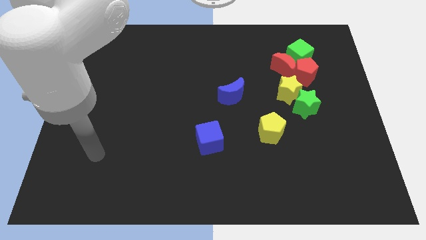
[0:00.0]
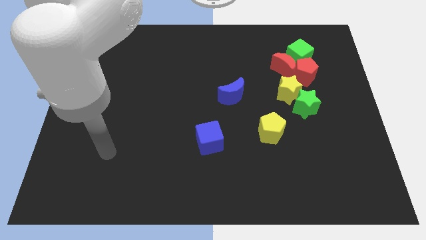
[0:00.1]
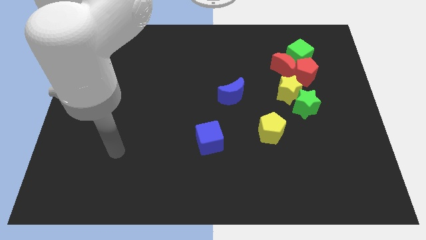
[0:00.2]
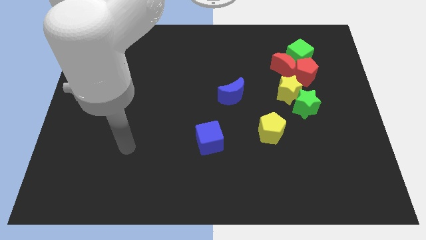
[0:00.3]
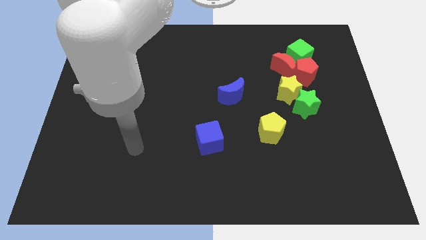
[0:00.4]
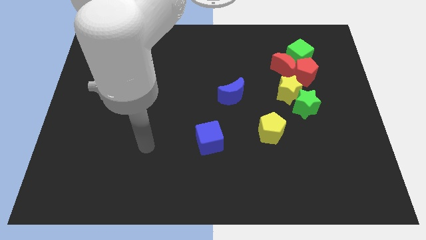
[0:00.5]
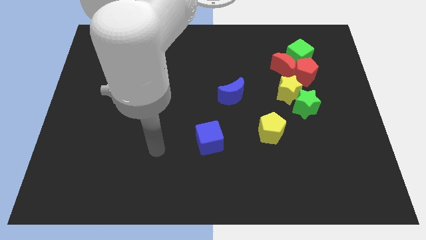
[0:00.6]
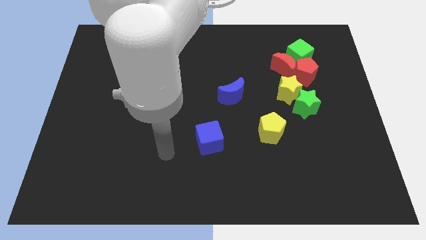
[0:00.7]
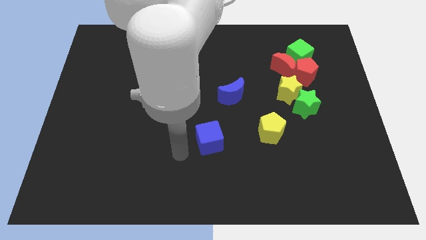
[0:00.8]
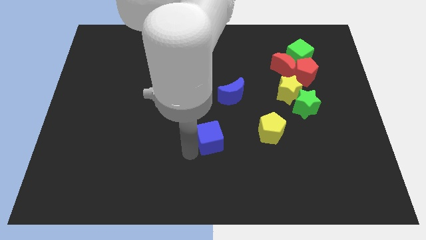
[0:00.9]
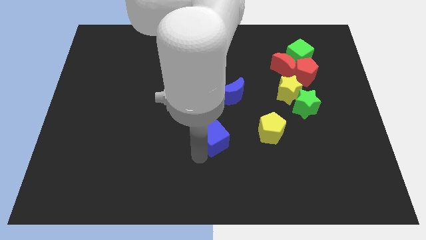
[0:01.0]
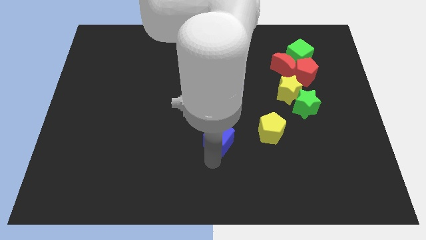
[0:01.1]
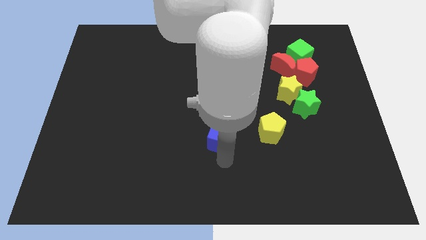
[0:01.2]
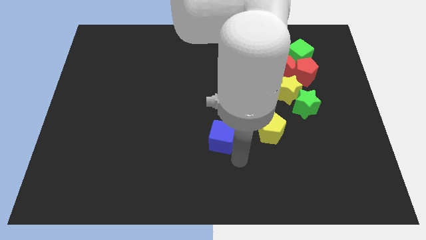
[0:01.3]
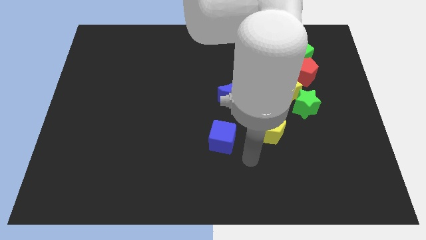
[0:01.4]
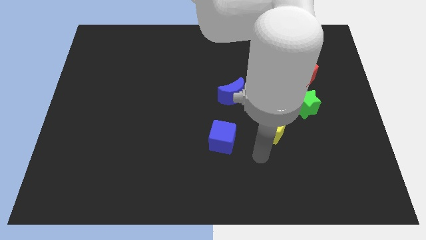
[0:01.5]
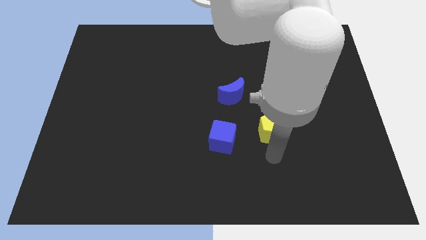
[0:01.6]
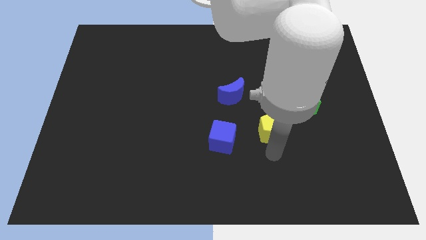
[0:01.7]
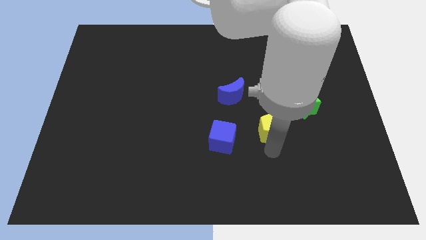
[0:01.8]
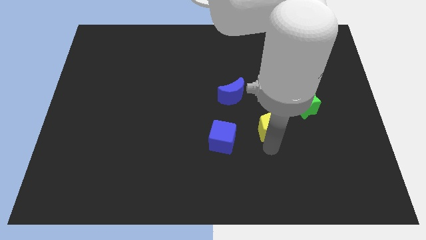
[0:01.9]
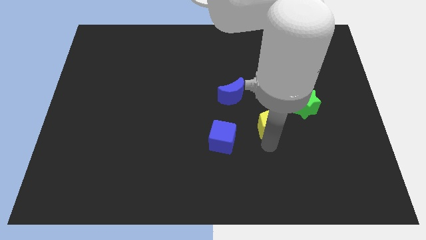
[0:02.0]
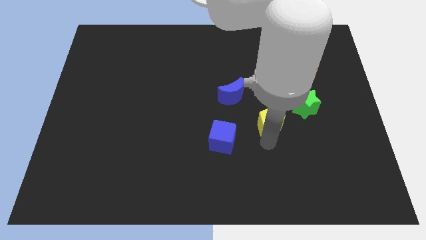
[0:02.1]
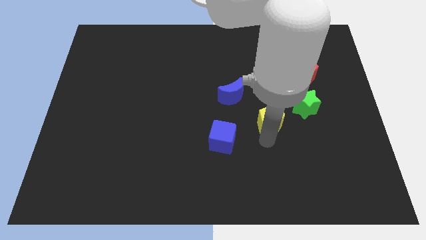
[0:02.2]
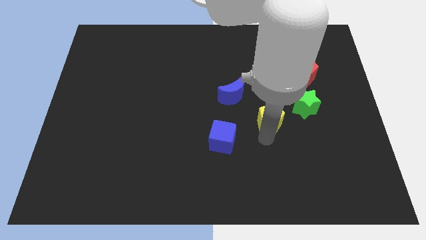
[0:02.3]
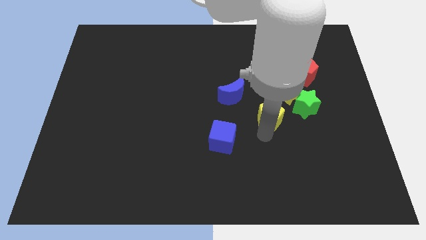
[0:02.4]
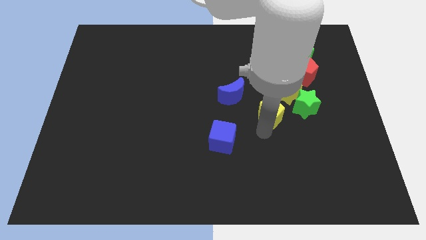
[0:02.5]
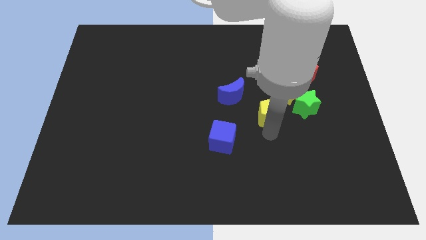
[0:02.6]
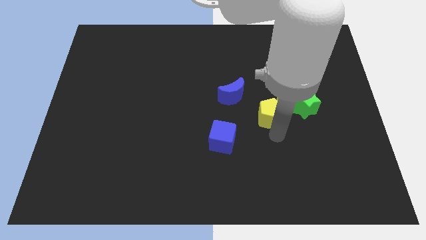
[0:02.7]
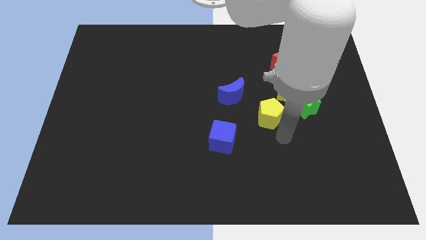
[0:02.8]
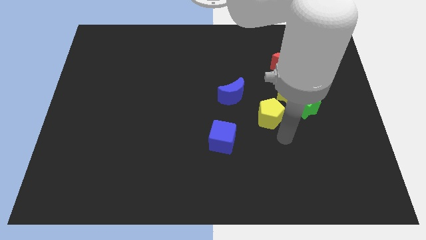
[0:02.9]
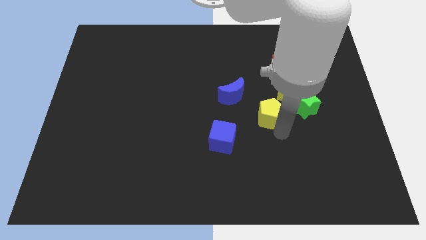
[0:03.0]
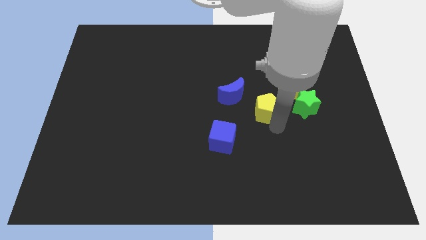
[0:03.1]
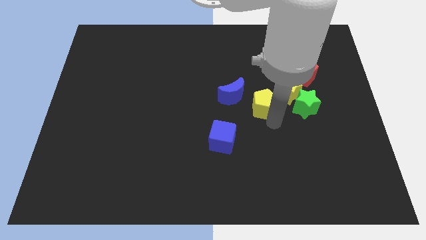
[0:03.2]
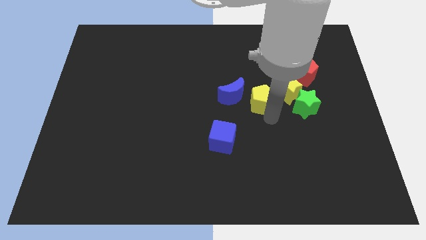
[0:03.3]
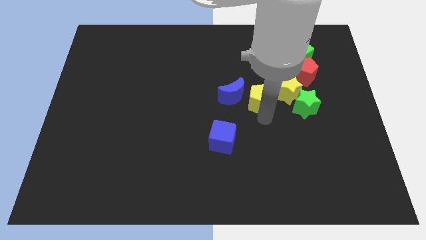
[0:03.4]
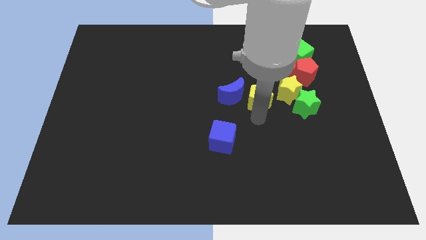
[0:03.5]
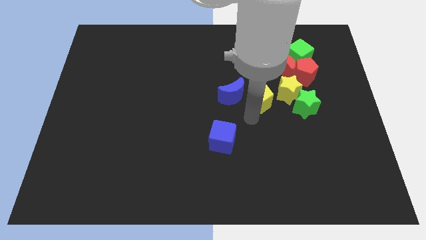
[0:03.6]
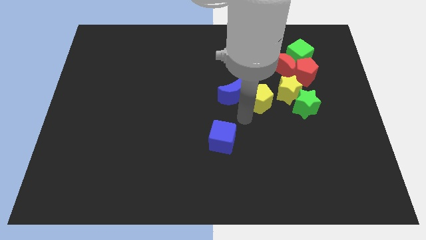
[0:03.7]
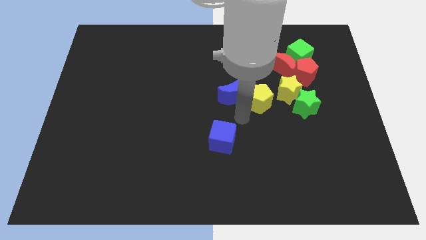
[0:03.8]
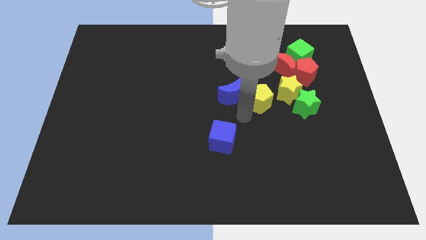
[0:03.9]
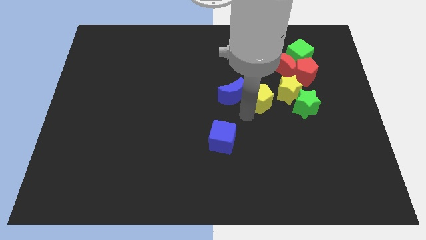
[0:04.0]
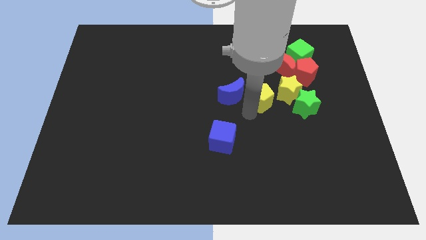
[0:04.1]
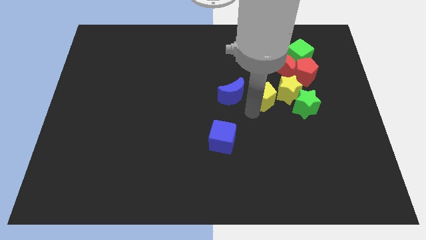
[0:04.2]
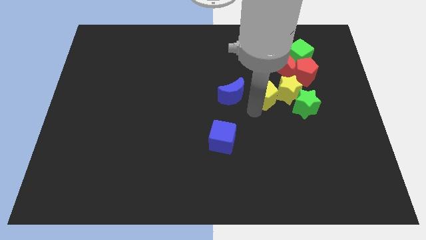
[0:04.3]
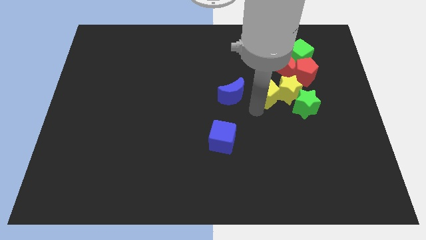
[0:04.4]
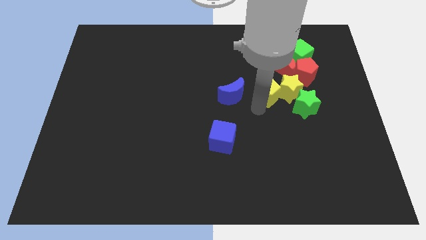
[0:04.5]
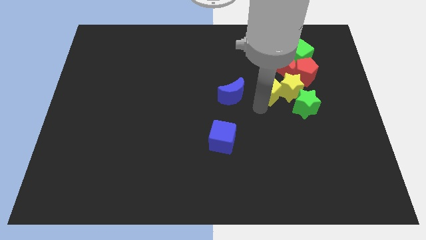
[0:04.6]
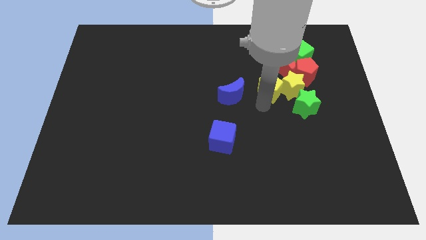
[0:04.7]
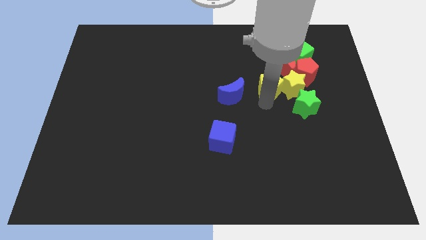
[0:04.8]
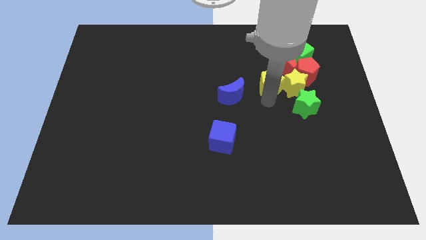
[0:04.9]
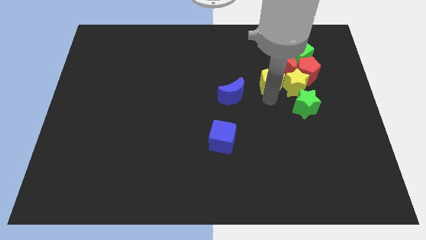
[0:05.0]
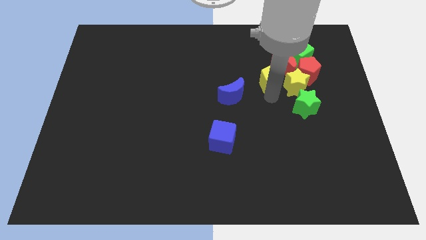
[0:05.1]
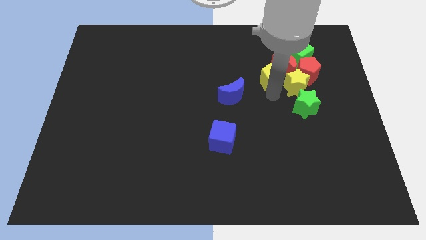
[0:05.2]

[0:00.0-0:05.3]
put the yellow pentagon close to the red moon

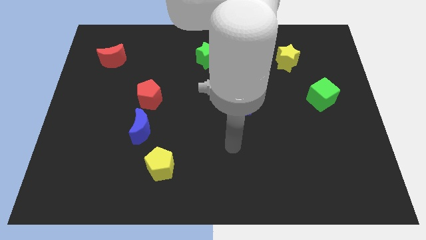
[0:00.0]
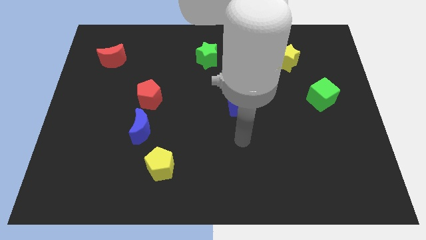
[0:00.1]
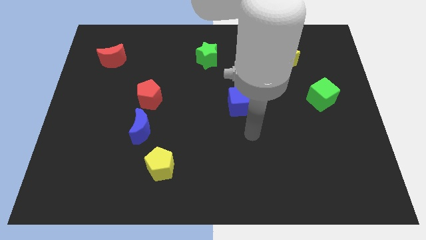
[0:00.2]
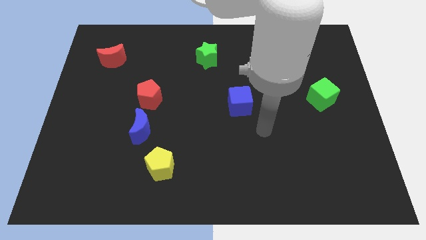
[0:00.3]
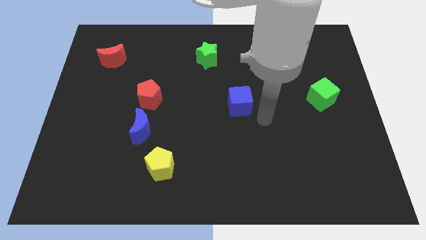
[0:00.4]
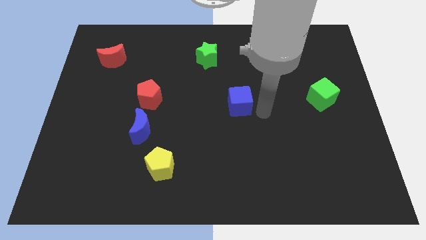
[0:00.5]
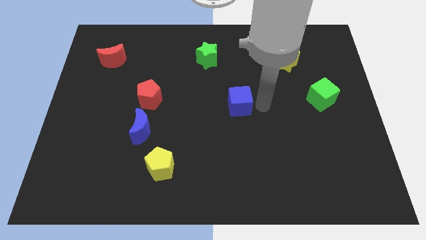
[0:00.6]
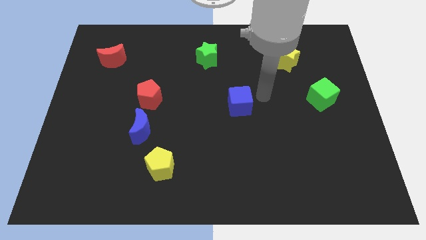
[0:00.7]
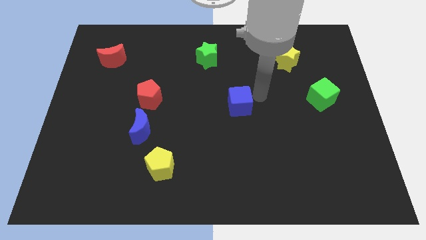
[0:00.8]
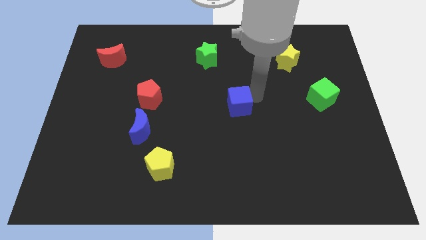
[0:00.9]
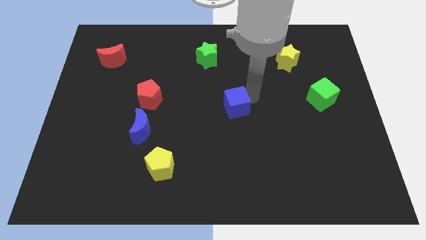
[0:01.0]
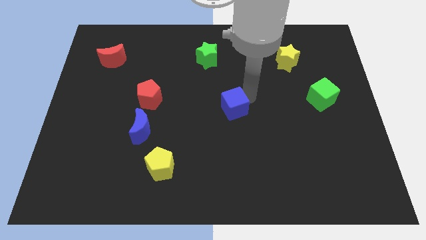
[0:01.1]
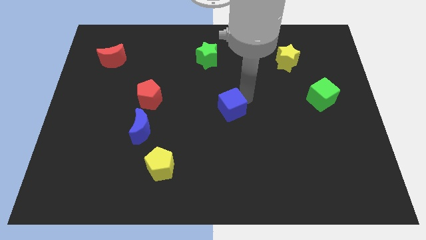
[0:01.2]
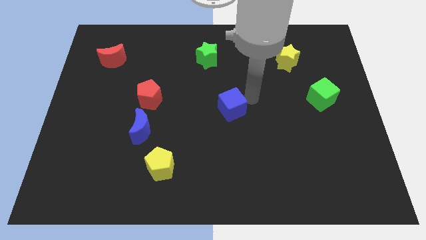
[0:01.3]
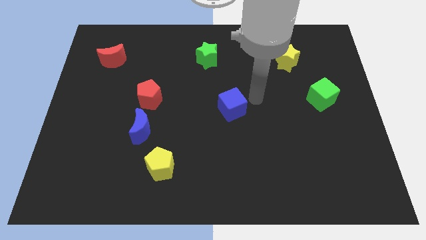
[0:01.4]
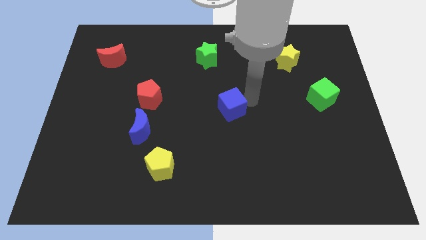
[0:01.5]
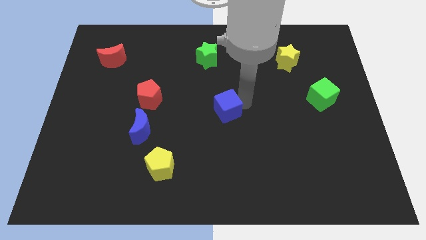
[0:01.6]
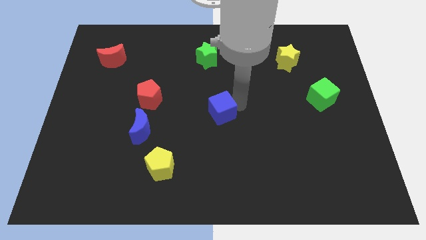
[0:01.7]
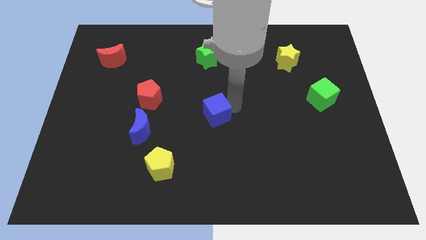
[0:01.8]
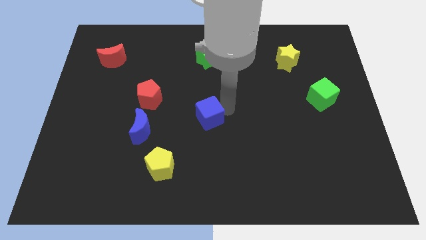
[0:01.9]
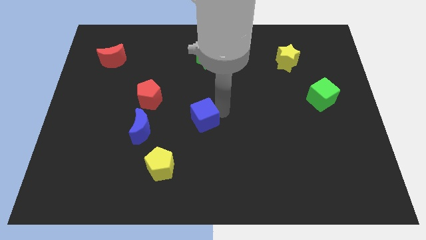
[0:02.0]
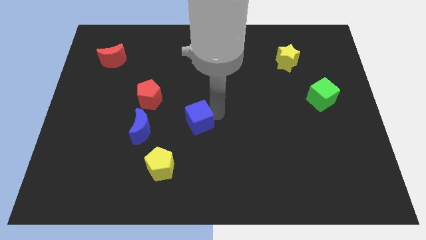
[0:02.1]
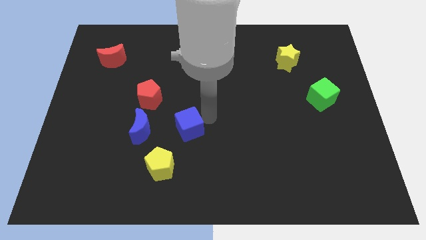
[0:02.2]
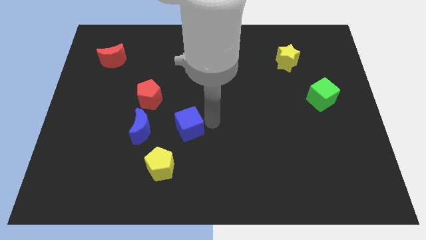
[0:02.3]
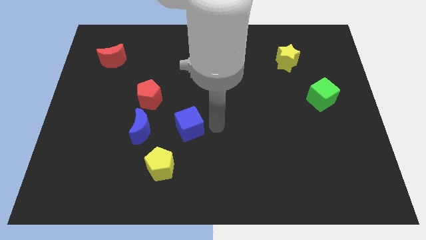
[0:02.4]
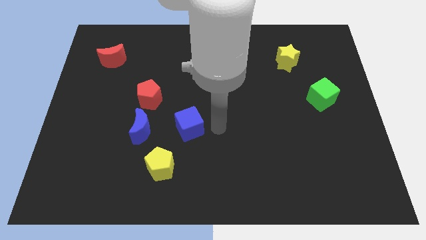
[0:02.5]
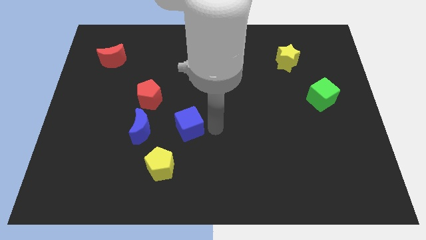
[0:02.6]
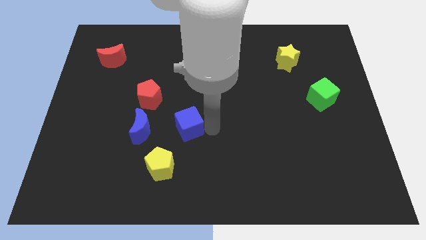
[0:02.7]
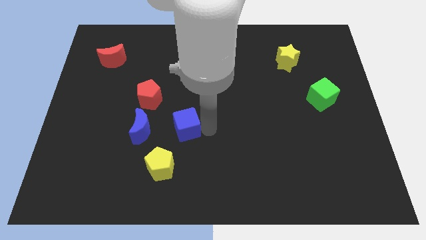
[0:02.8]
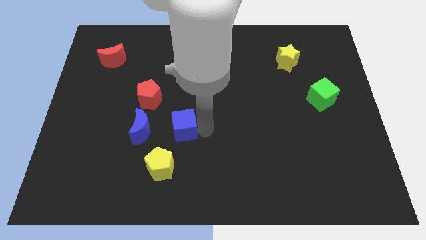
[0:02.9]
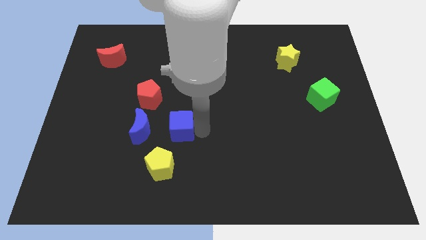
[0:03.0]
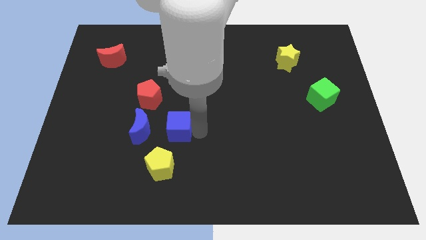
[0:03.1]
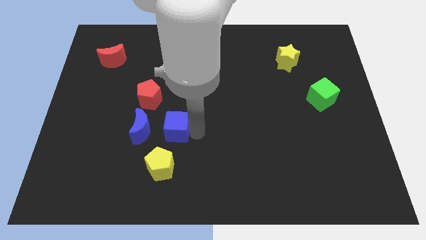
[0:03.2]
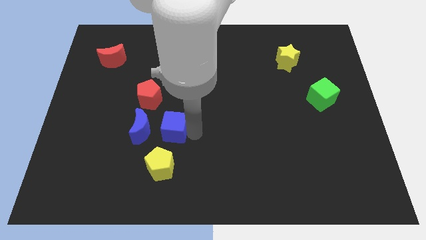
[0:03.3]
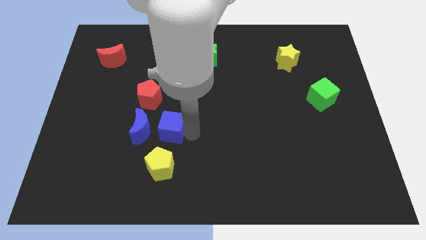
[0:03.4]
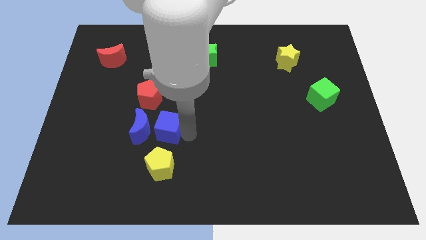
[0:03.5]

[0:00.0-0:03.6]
push the blue cube towards the blue moon
